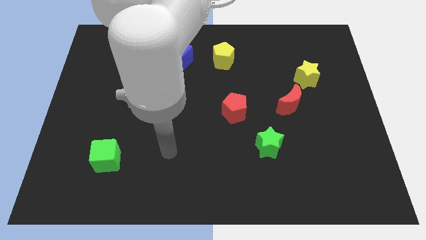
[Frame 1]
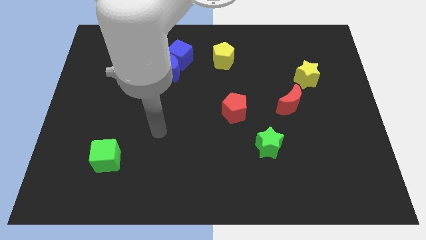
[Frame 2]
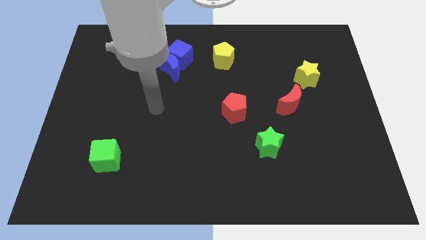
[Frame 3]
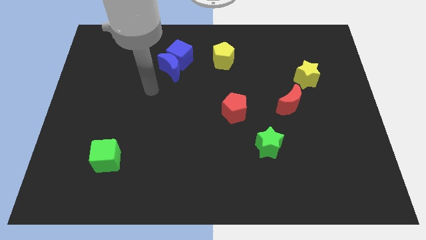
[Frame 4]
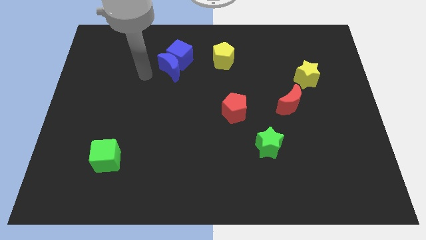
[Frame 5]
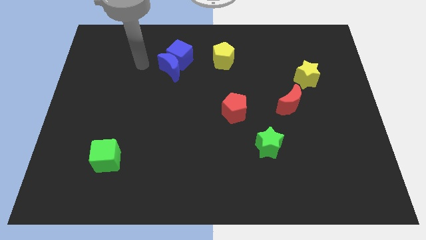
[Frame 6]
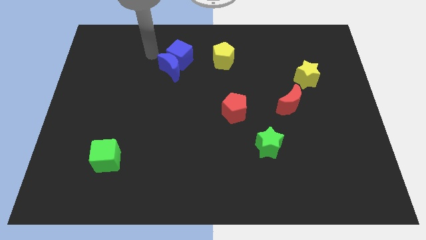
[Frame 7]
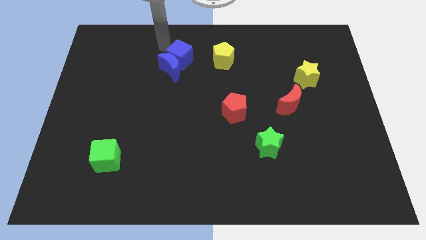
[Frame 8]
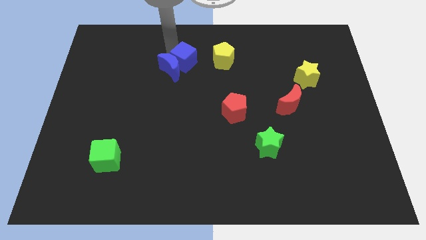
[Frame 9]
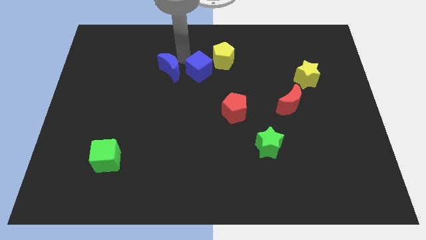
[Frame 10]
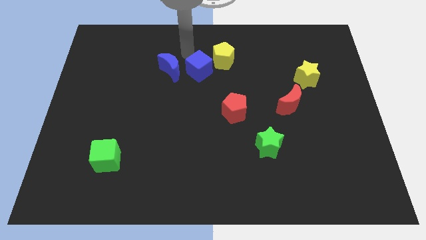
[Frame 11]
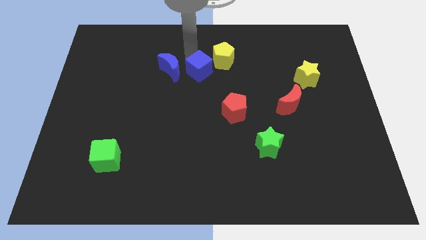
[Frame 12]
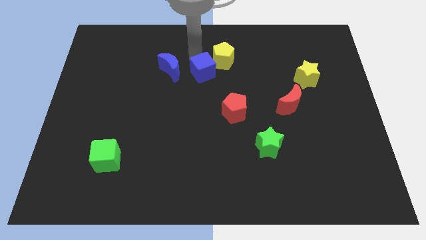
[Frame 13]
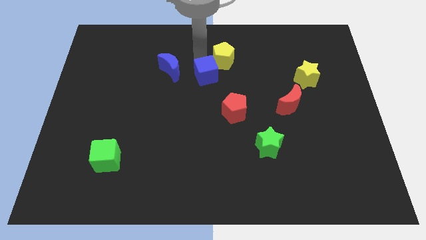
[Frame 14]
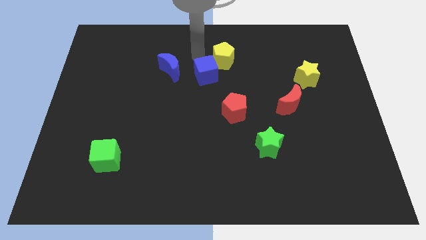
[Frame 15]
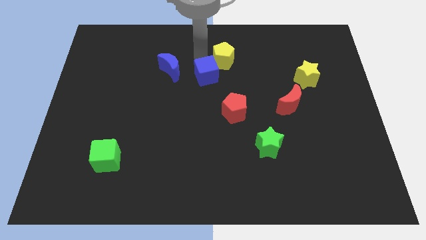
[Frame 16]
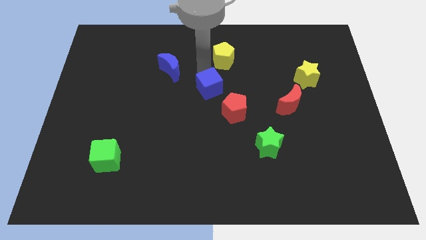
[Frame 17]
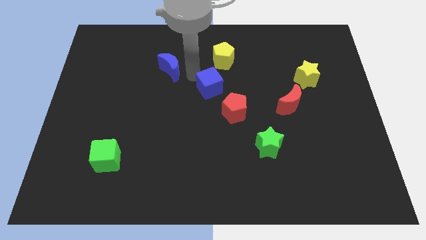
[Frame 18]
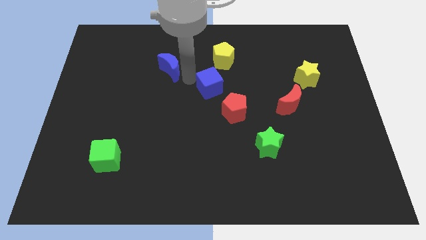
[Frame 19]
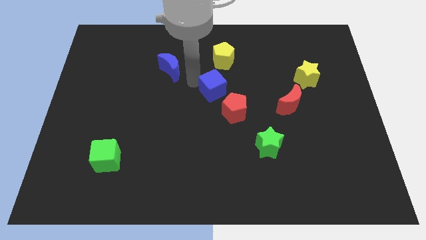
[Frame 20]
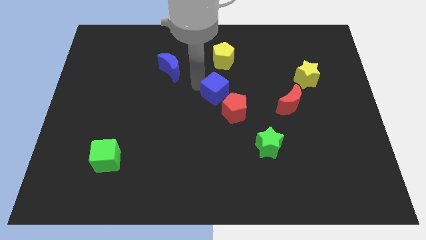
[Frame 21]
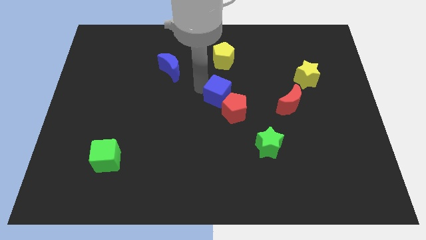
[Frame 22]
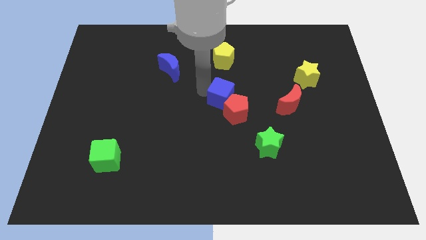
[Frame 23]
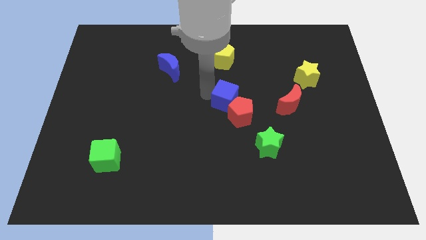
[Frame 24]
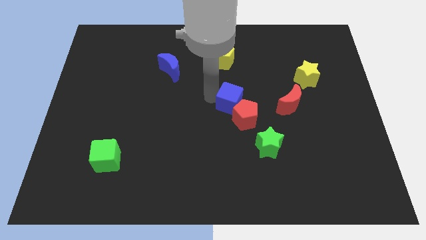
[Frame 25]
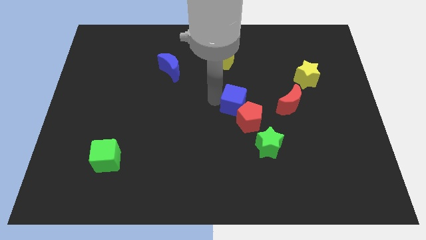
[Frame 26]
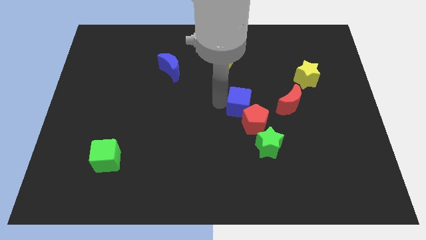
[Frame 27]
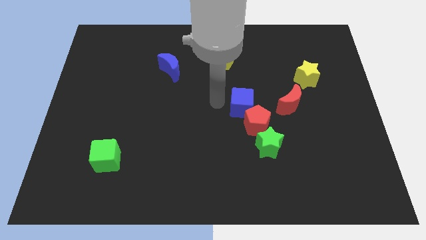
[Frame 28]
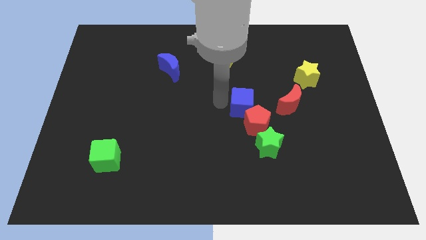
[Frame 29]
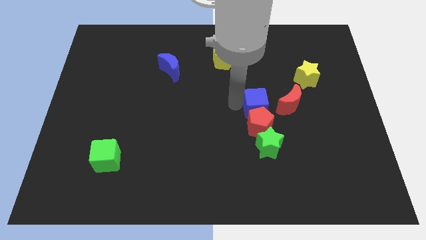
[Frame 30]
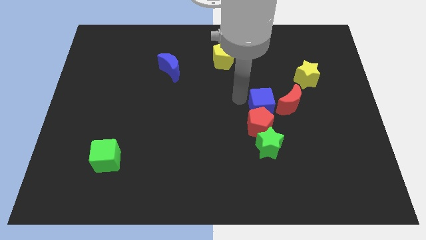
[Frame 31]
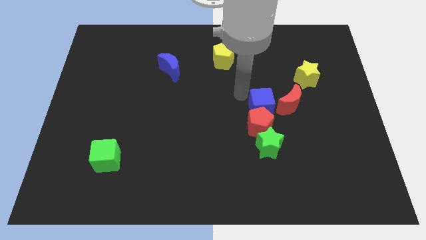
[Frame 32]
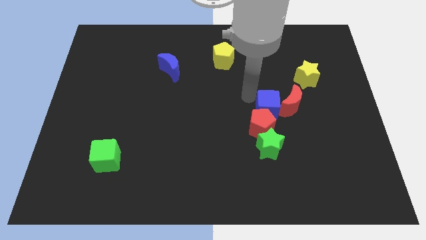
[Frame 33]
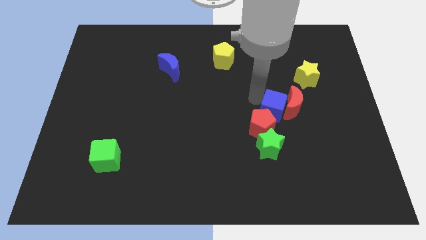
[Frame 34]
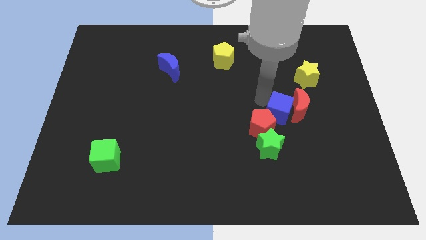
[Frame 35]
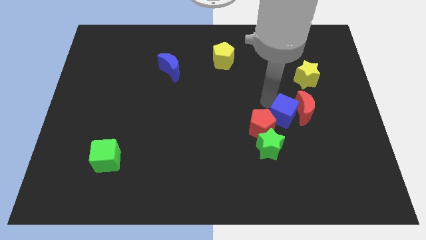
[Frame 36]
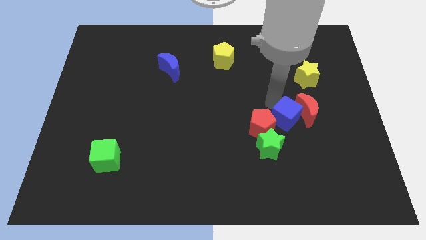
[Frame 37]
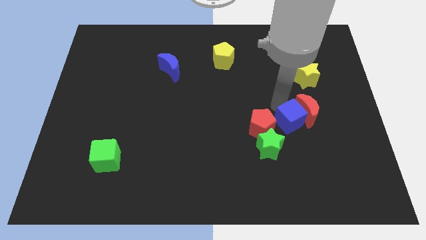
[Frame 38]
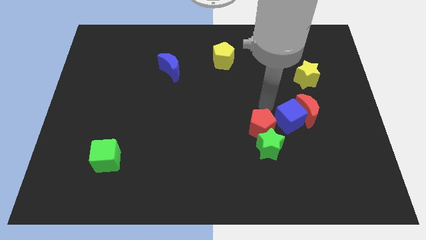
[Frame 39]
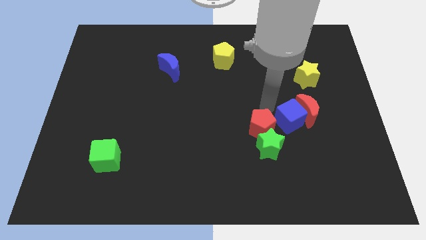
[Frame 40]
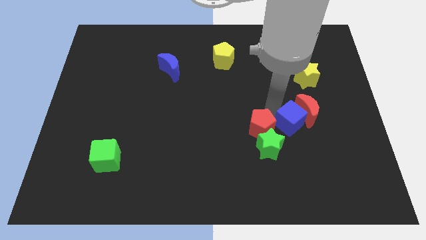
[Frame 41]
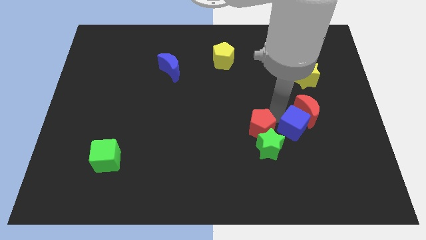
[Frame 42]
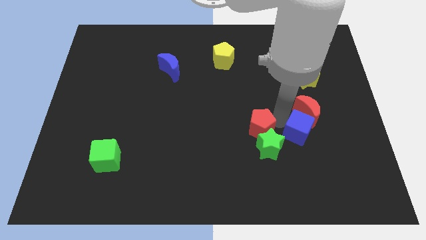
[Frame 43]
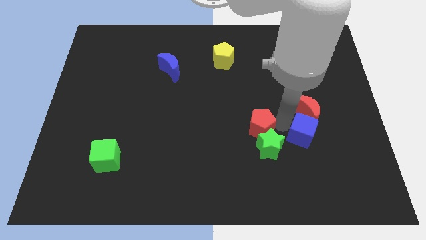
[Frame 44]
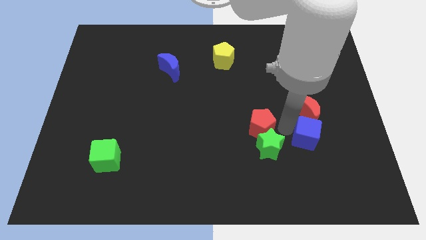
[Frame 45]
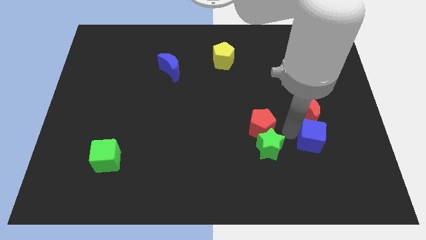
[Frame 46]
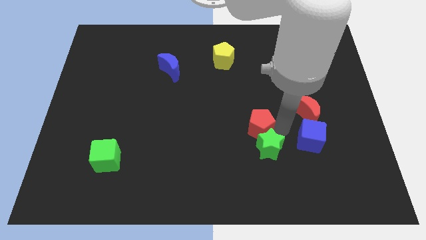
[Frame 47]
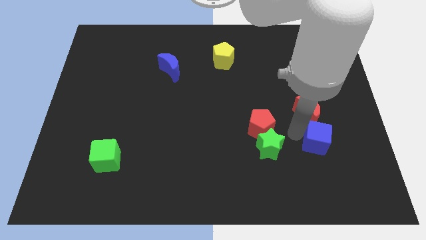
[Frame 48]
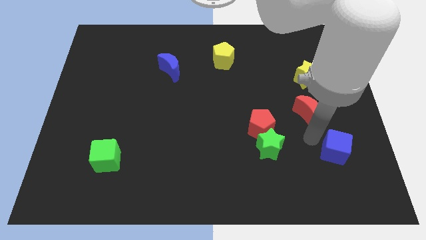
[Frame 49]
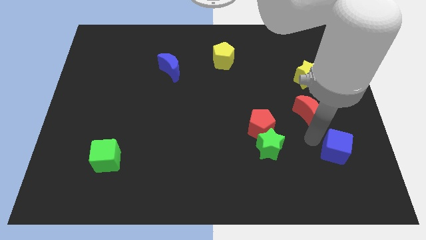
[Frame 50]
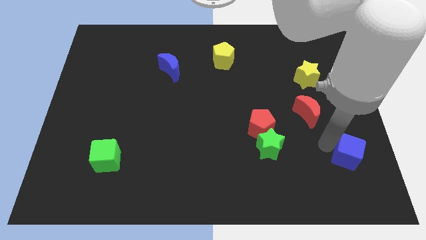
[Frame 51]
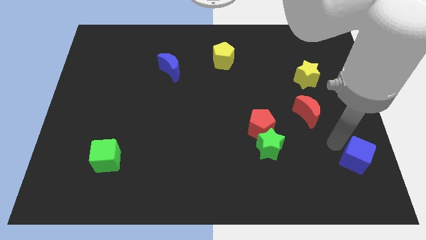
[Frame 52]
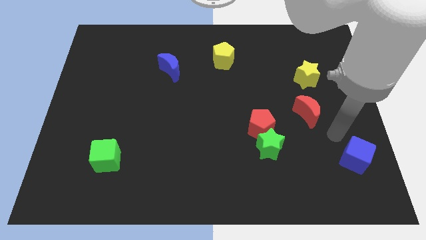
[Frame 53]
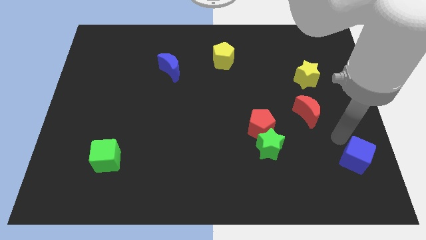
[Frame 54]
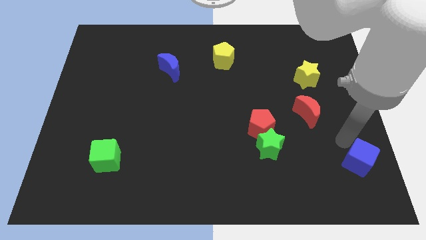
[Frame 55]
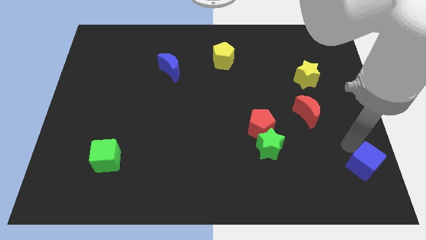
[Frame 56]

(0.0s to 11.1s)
slide the blue cube to the bottom right

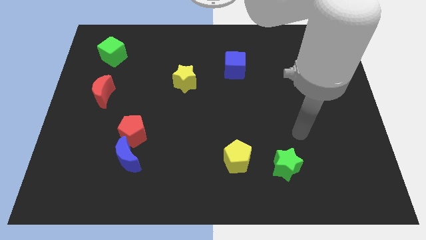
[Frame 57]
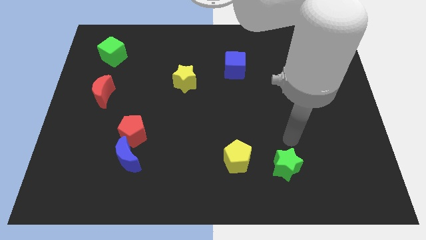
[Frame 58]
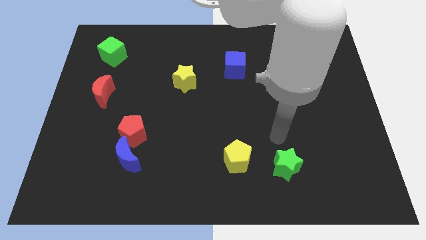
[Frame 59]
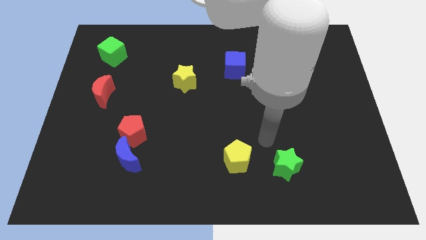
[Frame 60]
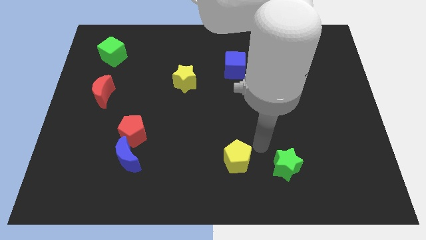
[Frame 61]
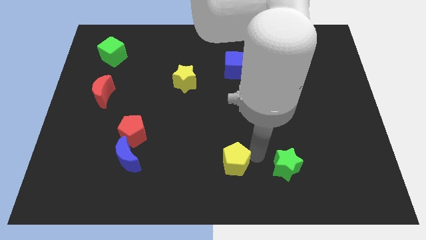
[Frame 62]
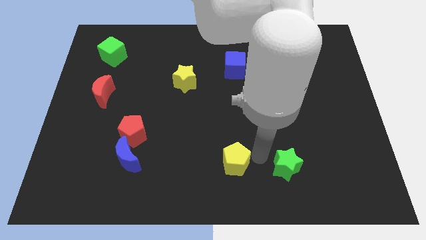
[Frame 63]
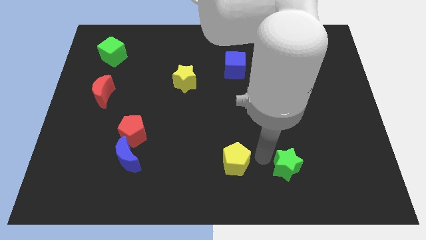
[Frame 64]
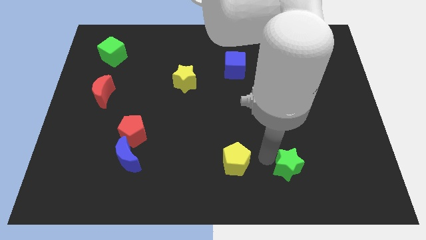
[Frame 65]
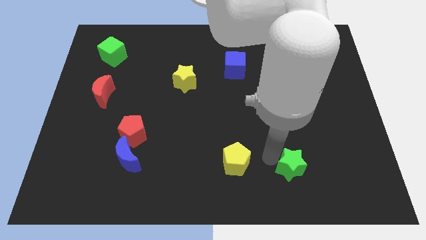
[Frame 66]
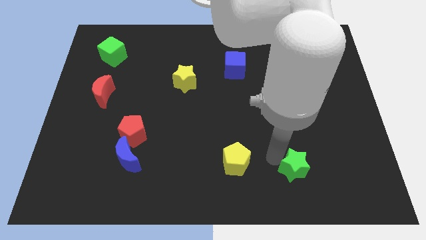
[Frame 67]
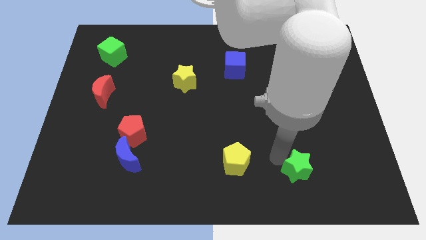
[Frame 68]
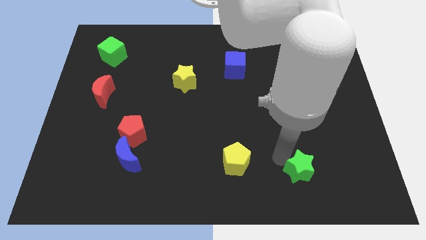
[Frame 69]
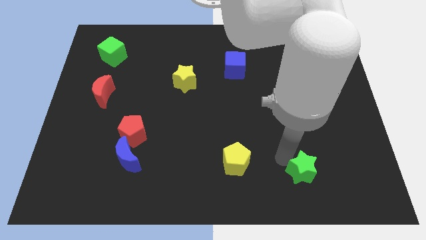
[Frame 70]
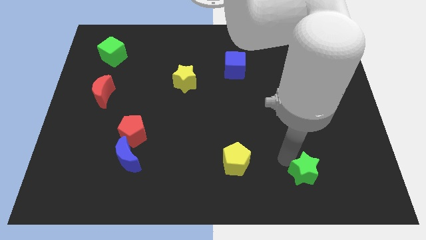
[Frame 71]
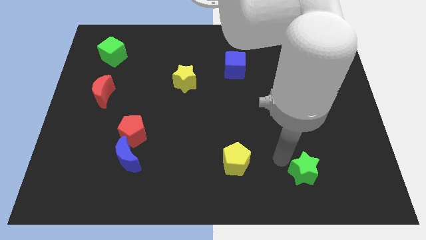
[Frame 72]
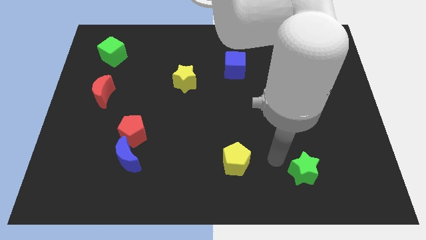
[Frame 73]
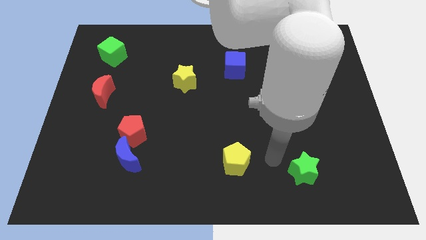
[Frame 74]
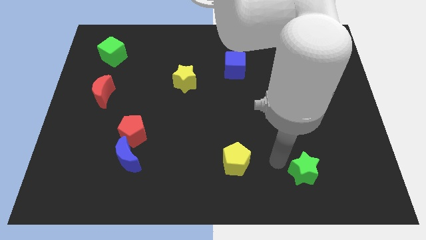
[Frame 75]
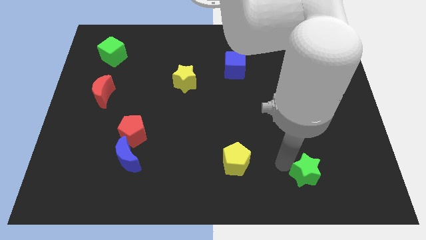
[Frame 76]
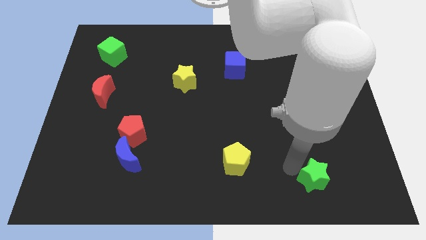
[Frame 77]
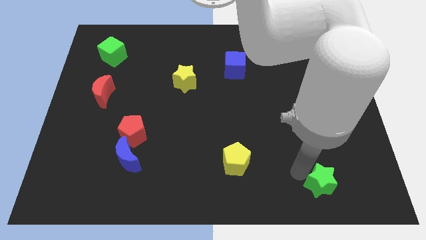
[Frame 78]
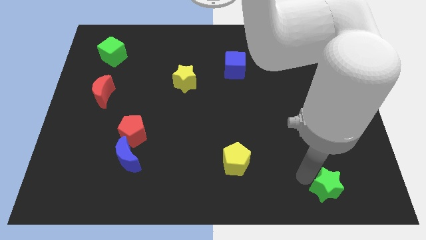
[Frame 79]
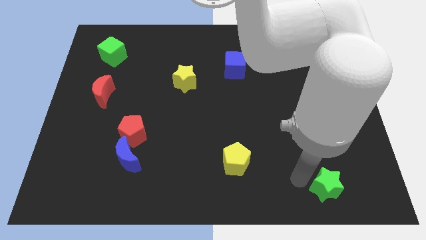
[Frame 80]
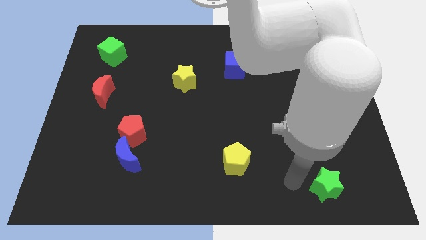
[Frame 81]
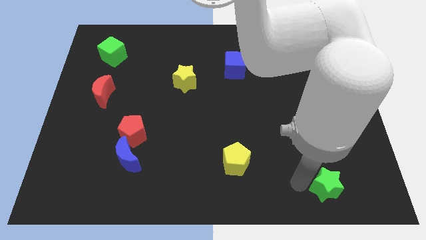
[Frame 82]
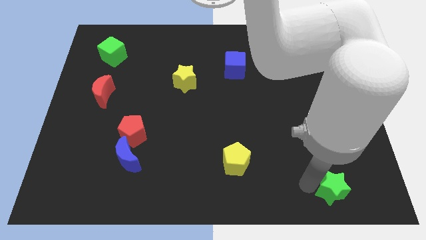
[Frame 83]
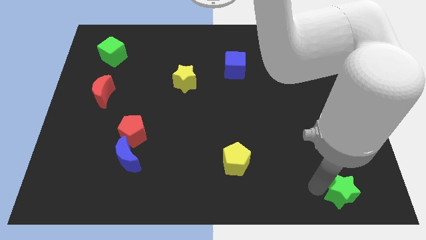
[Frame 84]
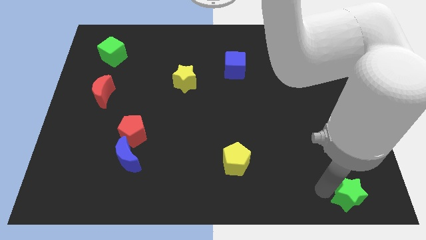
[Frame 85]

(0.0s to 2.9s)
put the green star to the lower right corner
